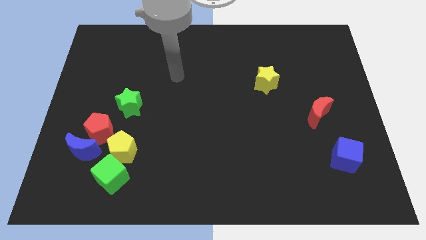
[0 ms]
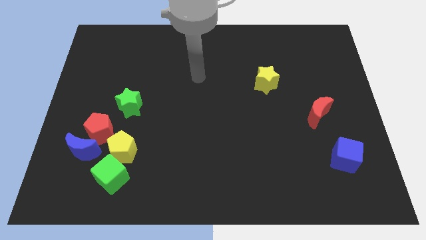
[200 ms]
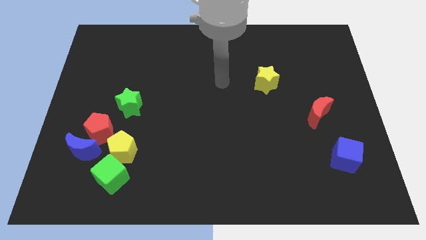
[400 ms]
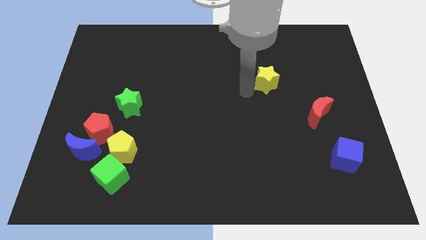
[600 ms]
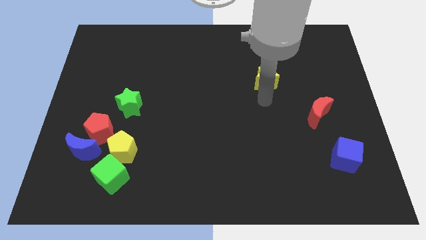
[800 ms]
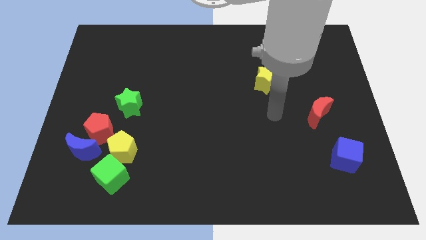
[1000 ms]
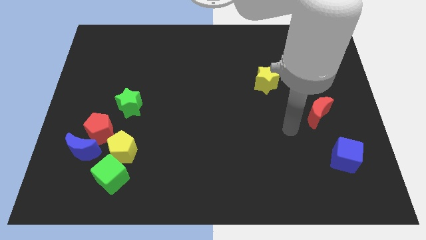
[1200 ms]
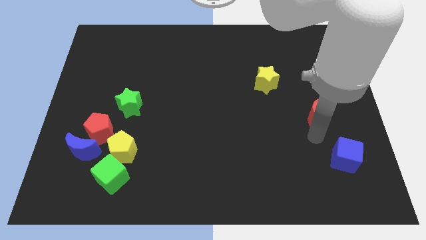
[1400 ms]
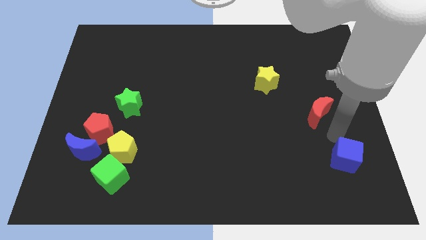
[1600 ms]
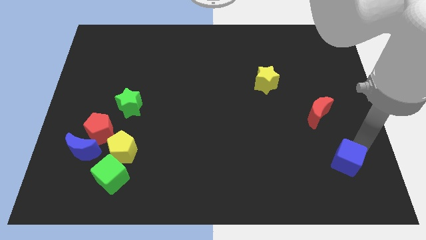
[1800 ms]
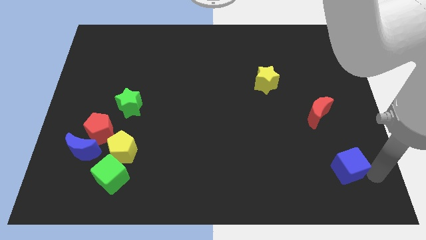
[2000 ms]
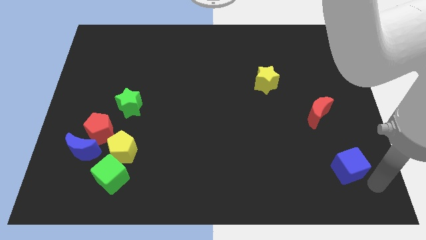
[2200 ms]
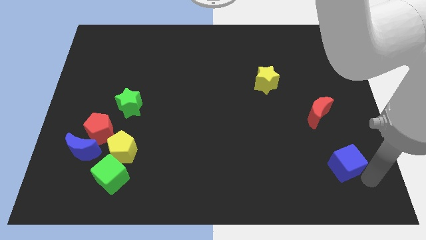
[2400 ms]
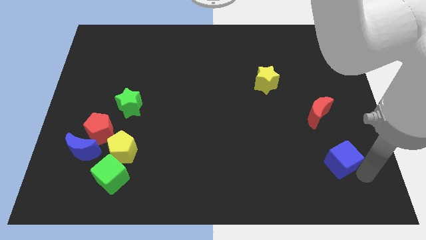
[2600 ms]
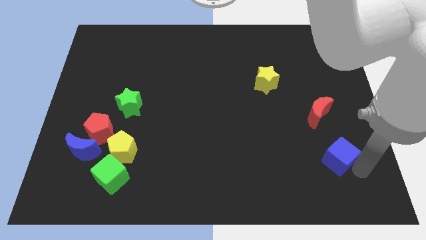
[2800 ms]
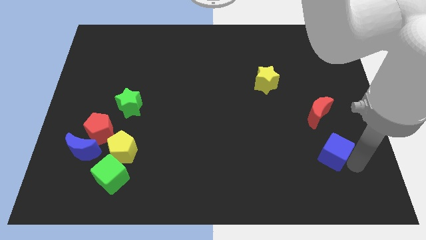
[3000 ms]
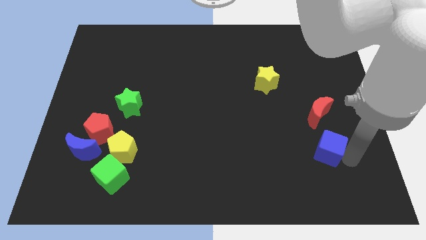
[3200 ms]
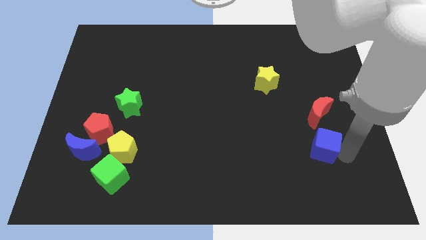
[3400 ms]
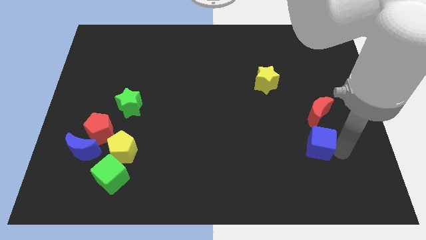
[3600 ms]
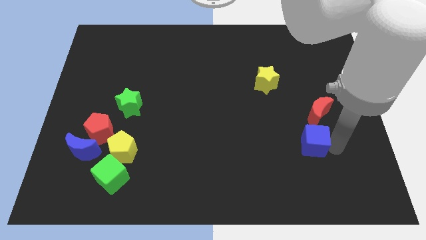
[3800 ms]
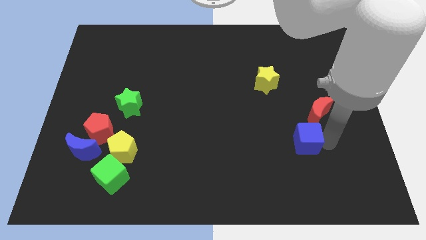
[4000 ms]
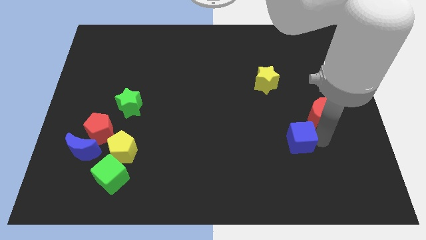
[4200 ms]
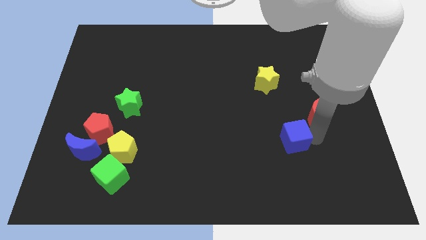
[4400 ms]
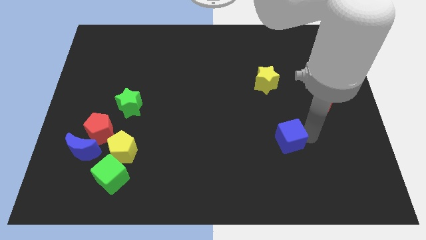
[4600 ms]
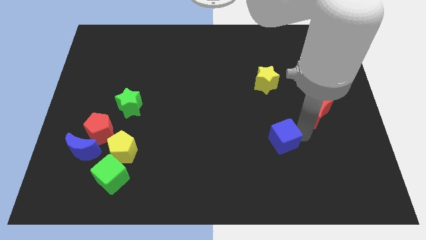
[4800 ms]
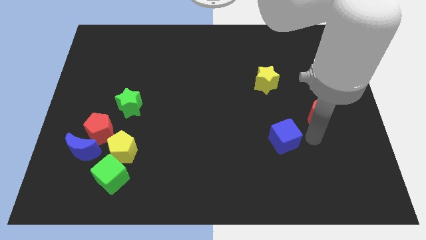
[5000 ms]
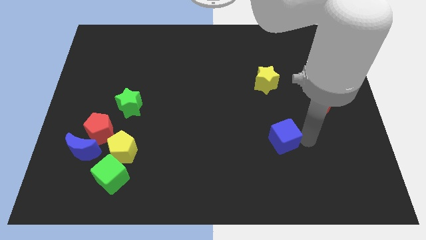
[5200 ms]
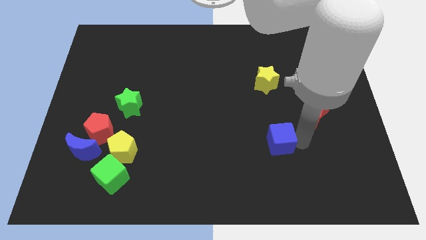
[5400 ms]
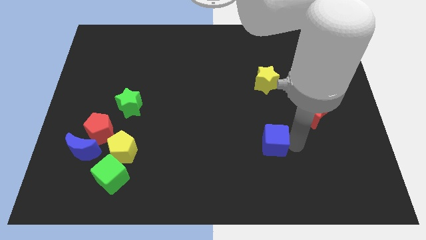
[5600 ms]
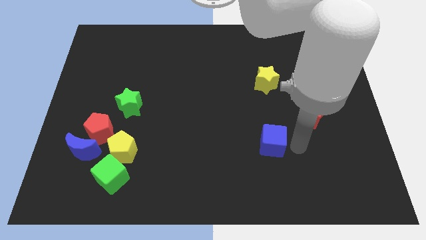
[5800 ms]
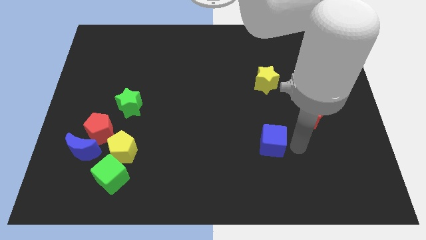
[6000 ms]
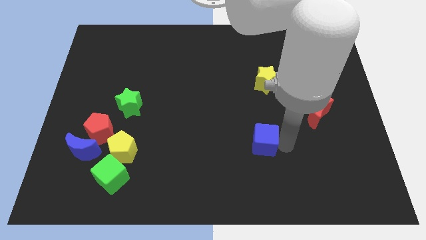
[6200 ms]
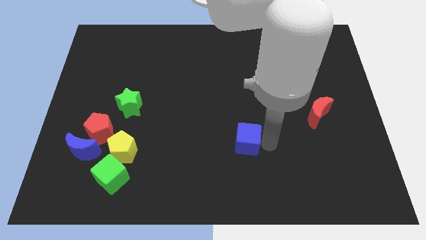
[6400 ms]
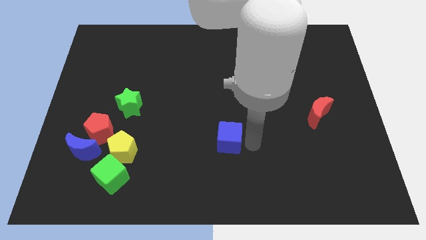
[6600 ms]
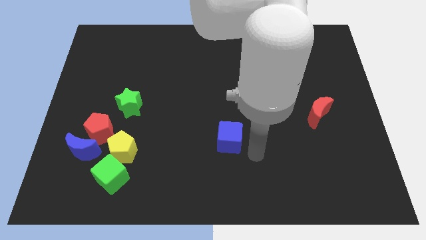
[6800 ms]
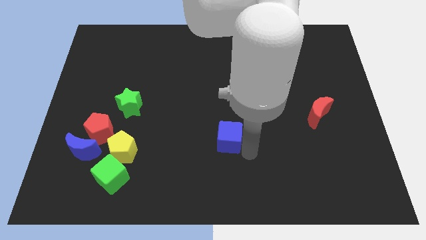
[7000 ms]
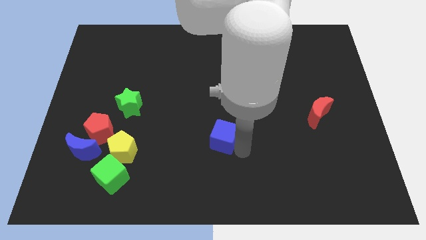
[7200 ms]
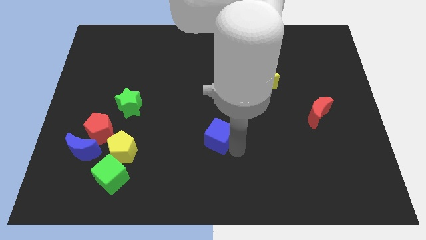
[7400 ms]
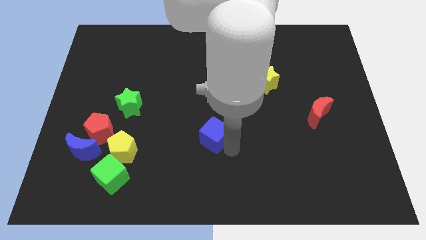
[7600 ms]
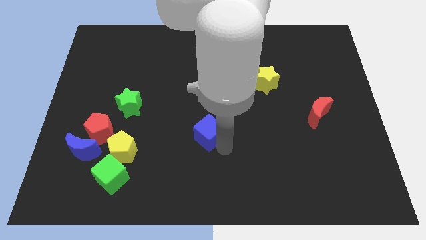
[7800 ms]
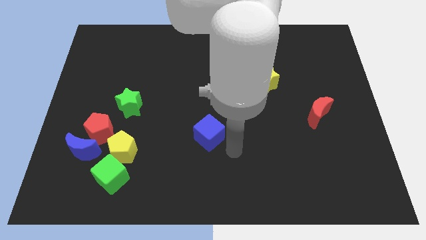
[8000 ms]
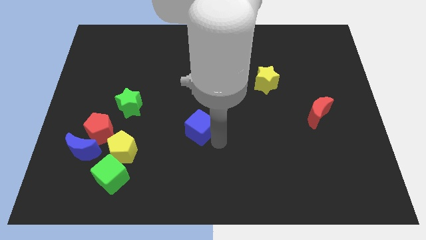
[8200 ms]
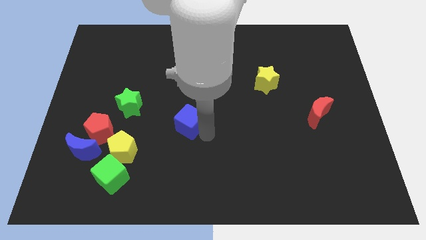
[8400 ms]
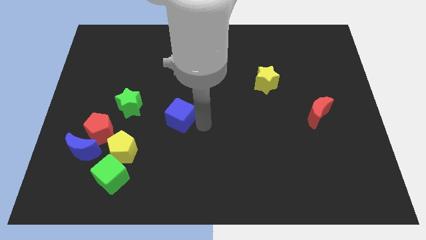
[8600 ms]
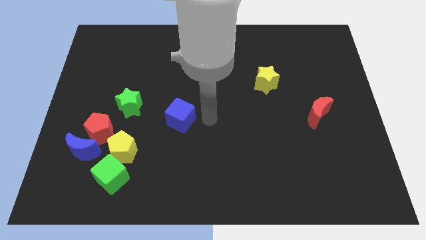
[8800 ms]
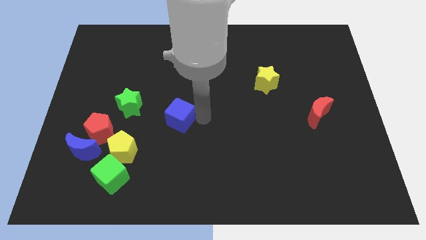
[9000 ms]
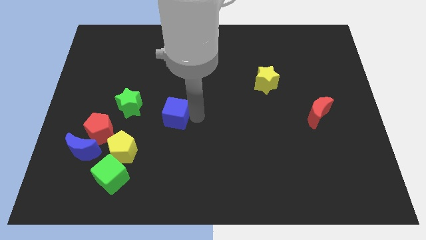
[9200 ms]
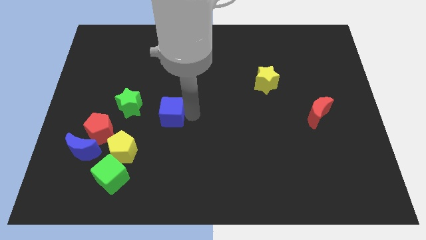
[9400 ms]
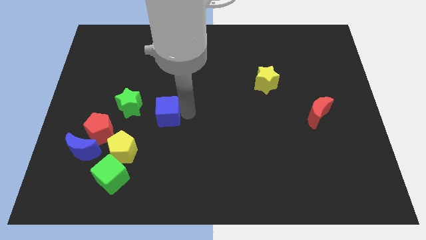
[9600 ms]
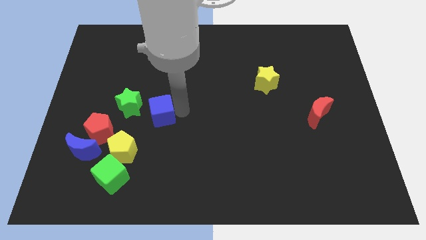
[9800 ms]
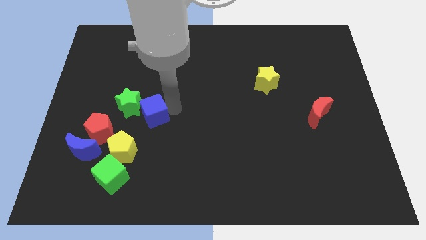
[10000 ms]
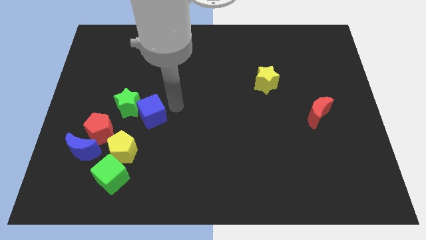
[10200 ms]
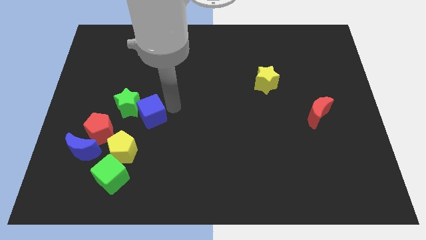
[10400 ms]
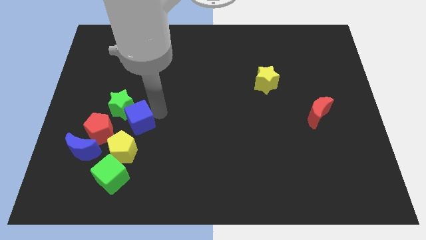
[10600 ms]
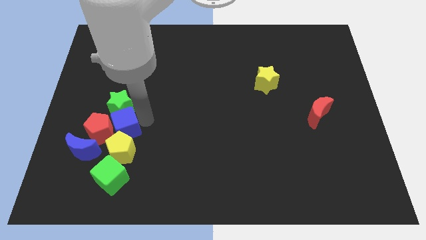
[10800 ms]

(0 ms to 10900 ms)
slide the blue cube close to the red pentagon

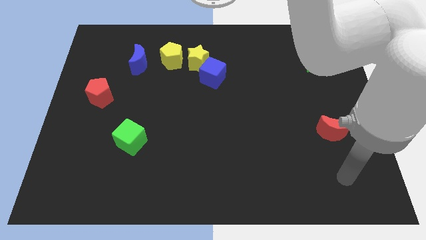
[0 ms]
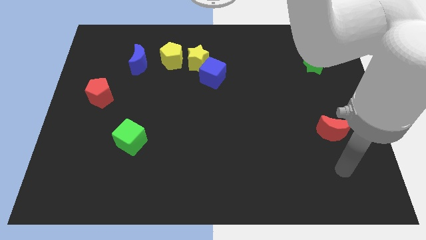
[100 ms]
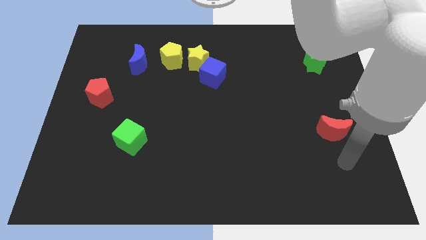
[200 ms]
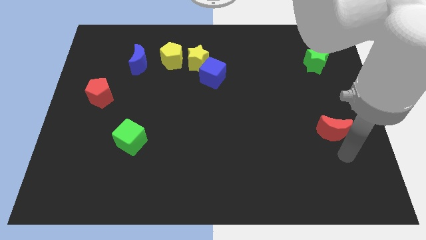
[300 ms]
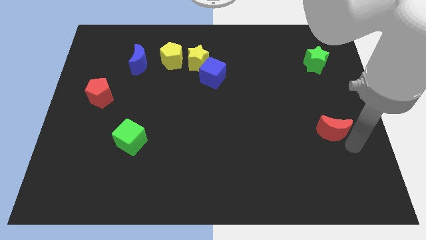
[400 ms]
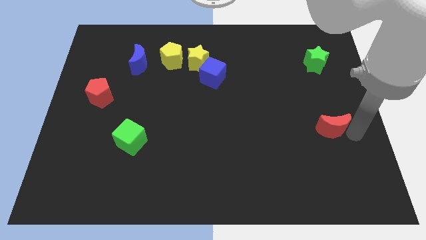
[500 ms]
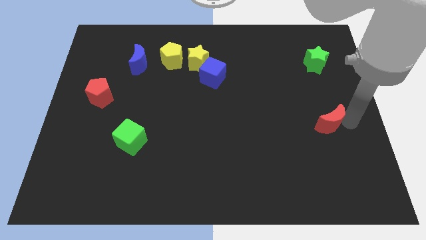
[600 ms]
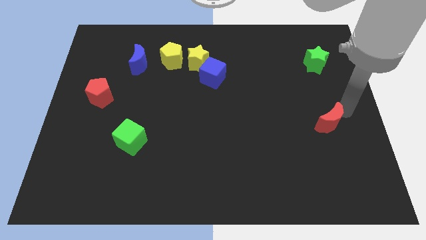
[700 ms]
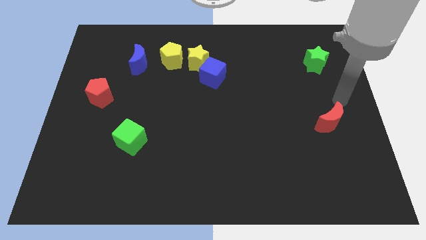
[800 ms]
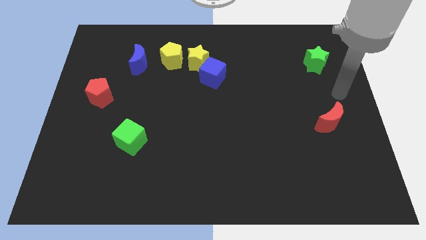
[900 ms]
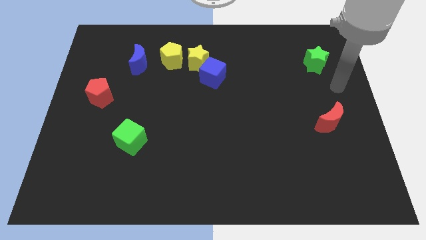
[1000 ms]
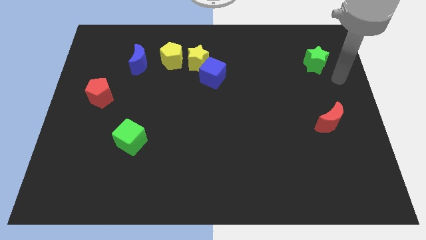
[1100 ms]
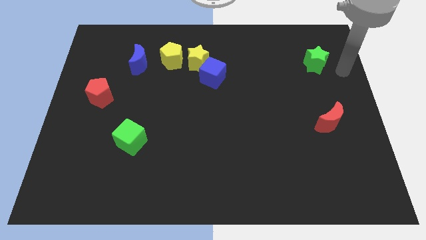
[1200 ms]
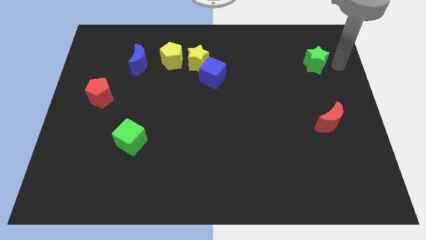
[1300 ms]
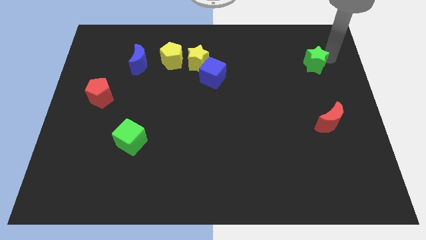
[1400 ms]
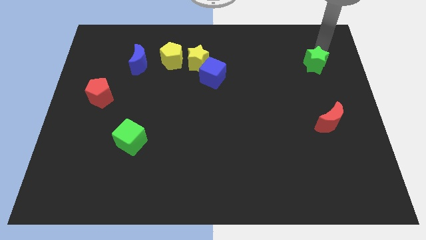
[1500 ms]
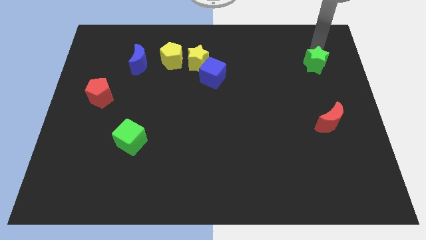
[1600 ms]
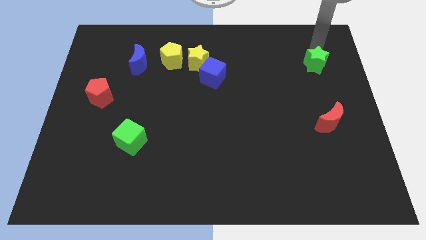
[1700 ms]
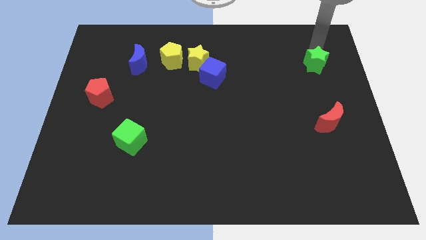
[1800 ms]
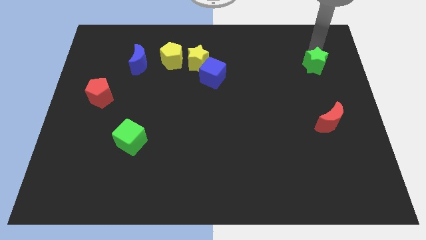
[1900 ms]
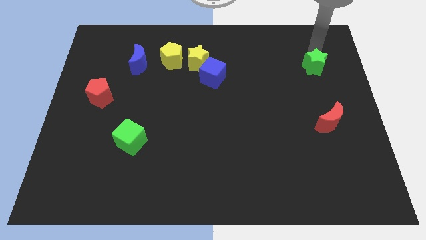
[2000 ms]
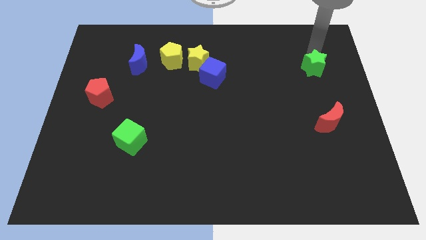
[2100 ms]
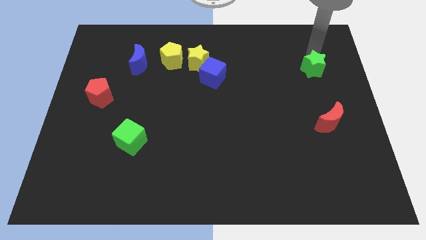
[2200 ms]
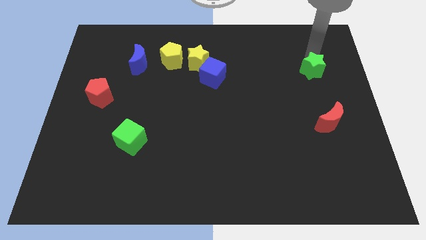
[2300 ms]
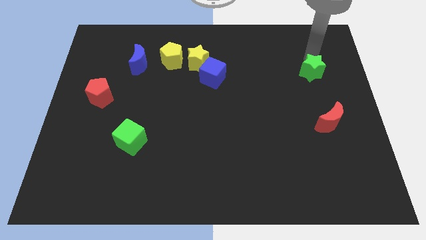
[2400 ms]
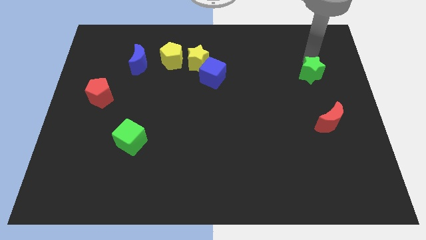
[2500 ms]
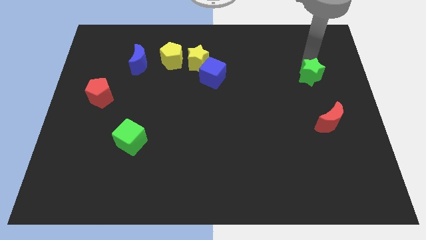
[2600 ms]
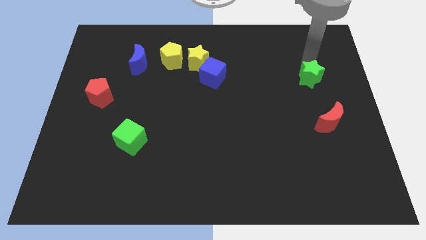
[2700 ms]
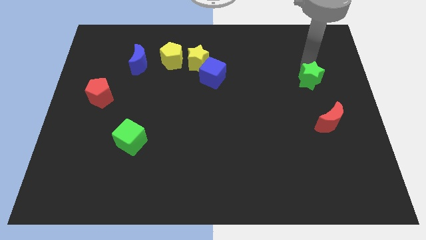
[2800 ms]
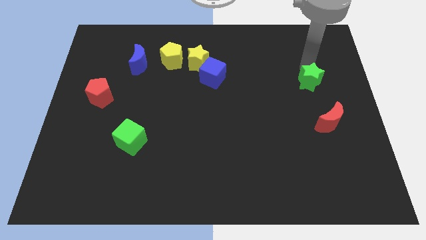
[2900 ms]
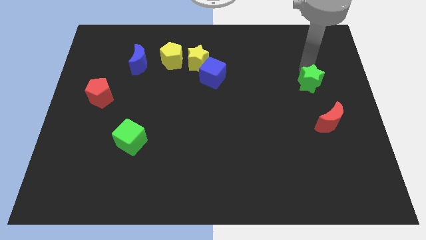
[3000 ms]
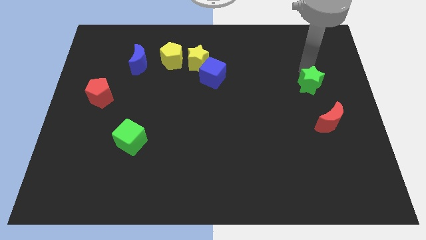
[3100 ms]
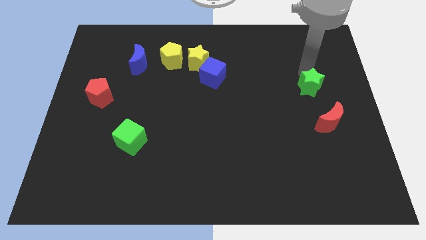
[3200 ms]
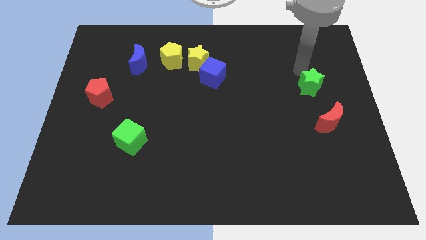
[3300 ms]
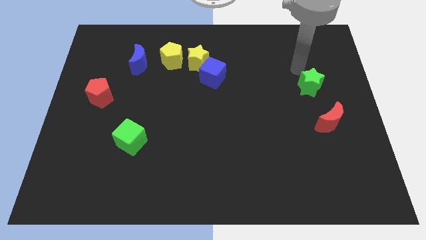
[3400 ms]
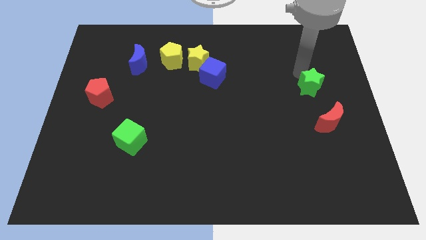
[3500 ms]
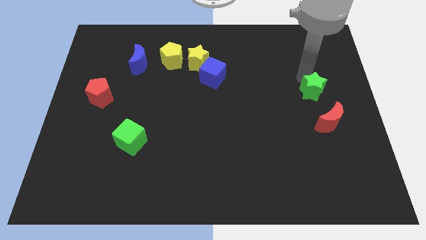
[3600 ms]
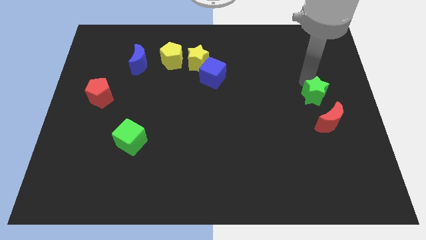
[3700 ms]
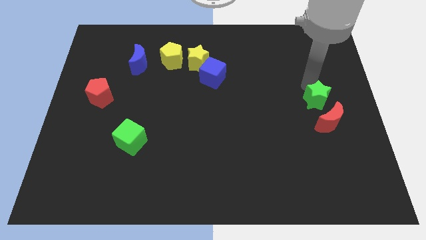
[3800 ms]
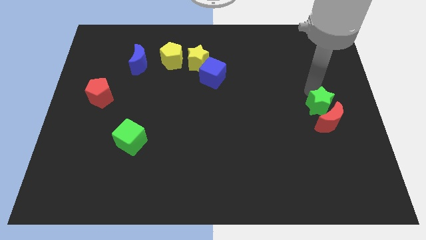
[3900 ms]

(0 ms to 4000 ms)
push the green star next to the red moon
